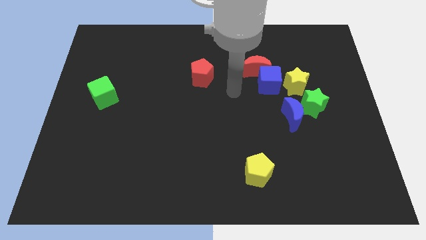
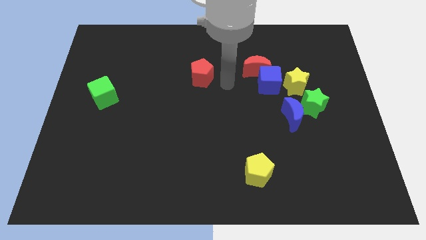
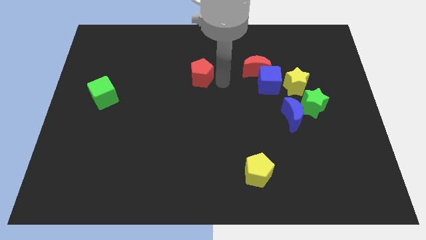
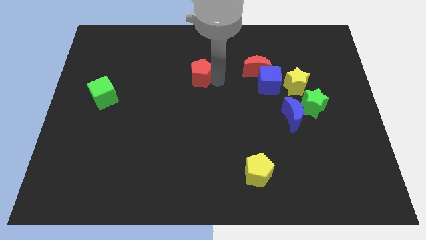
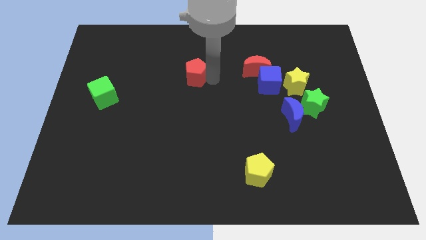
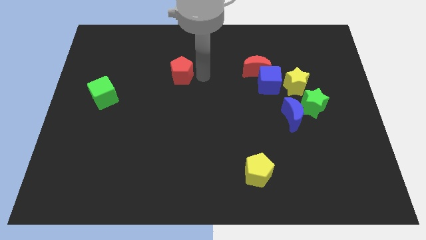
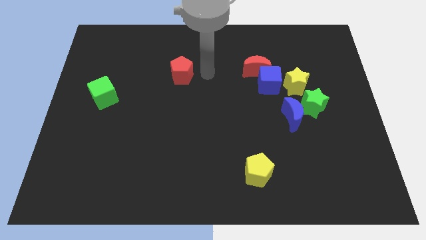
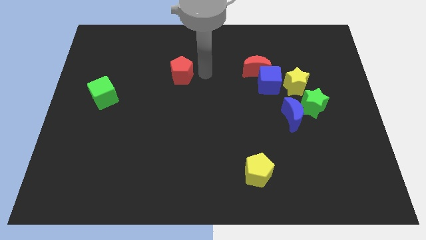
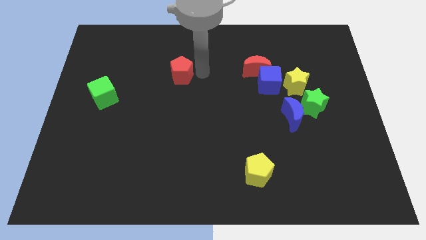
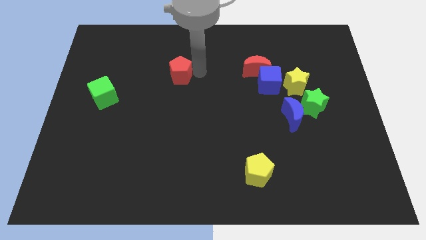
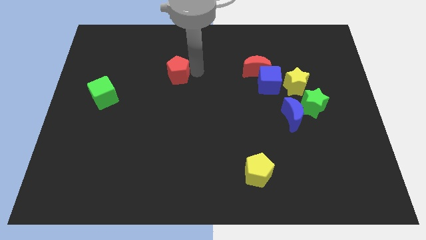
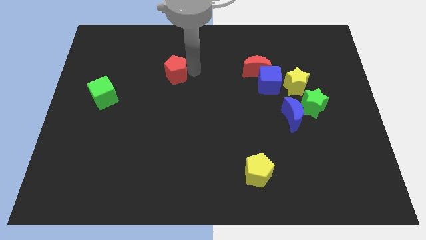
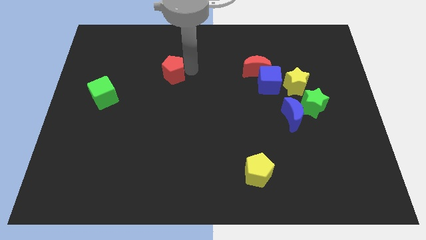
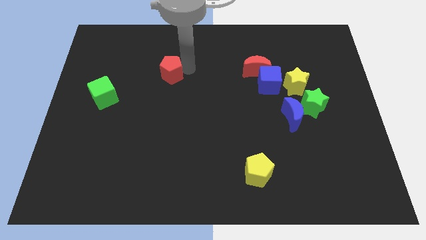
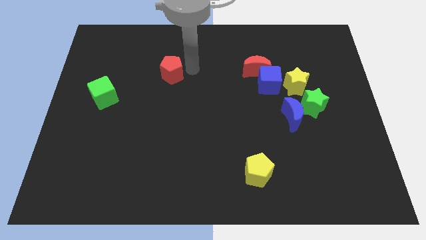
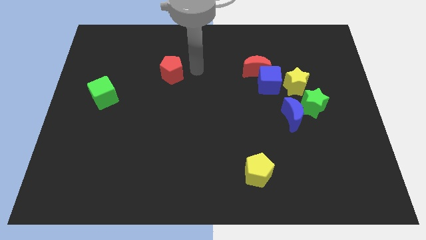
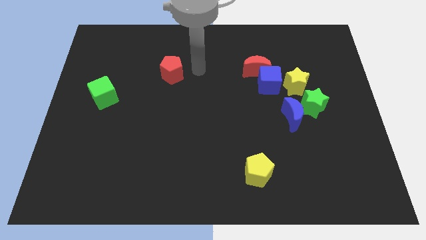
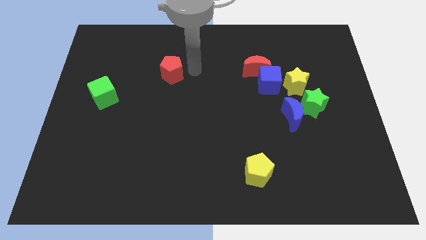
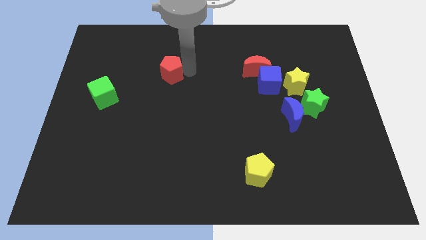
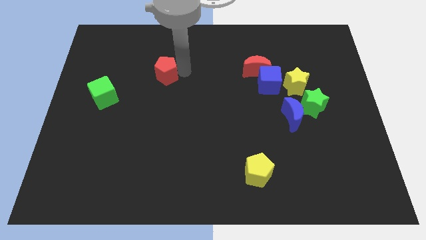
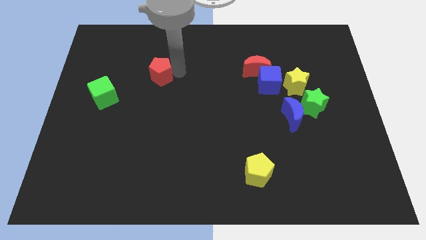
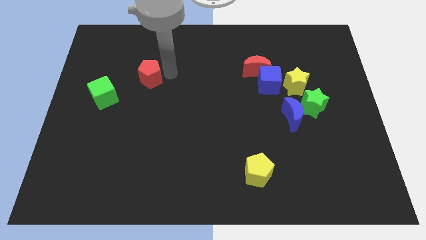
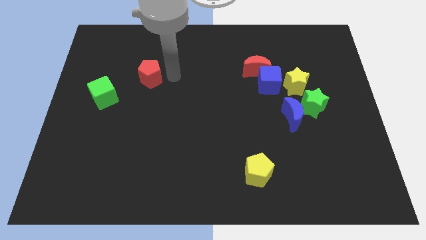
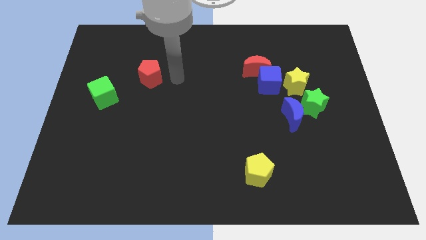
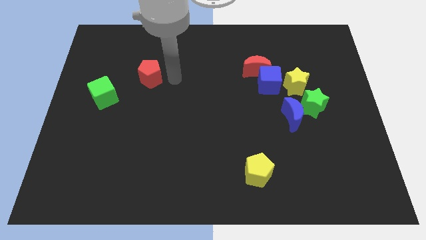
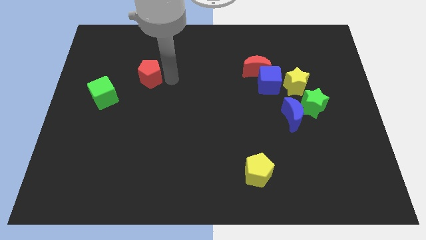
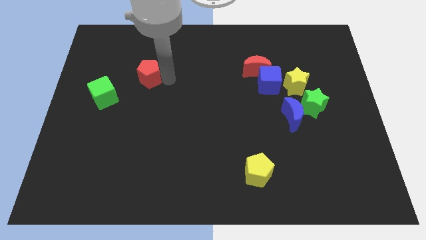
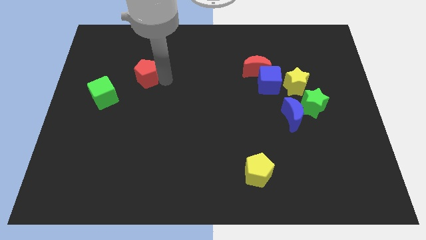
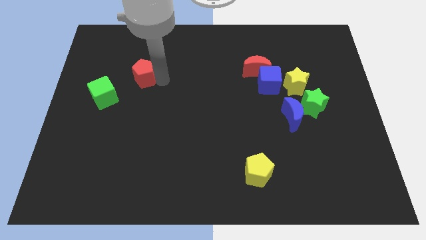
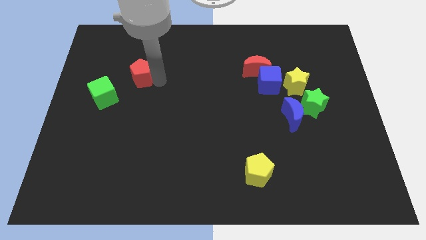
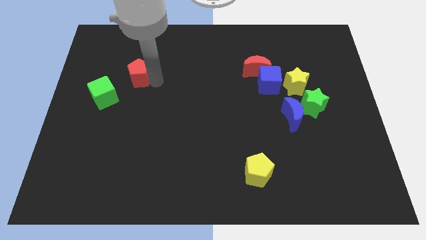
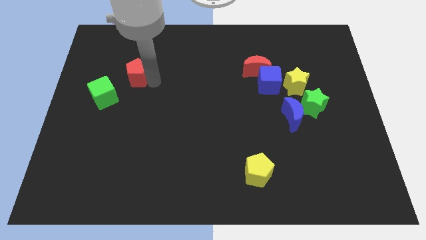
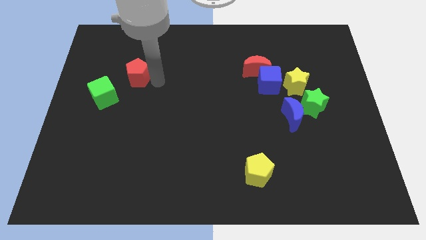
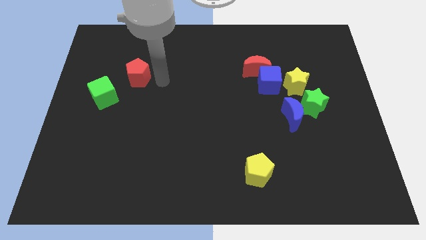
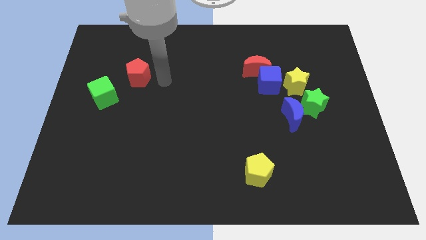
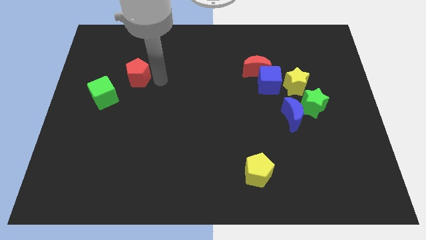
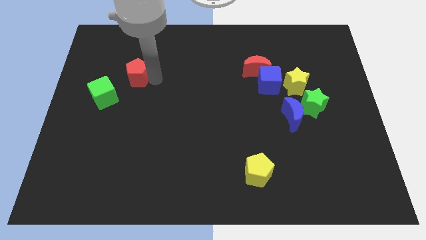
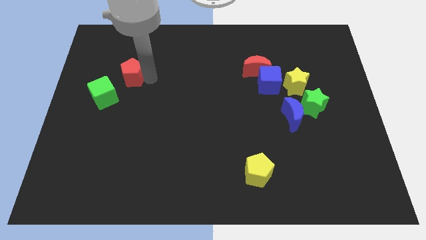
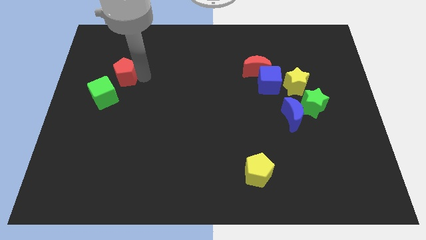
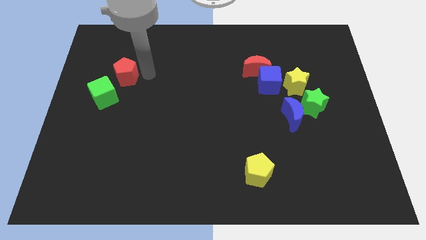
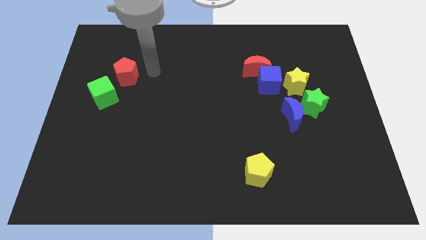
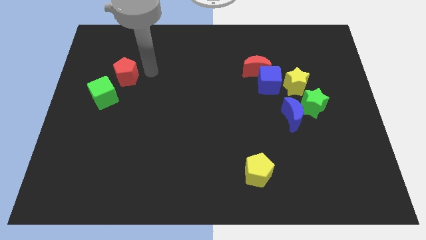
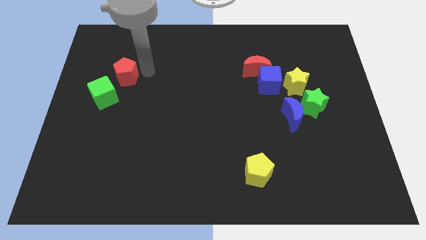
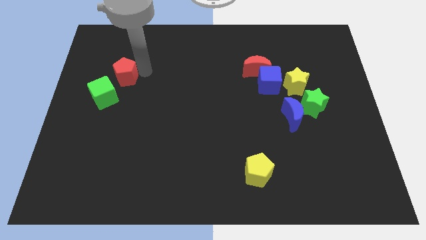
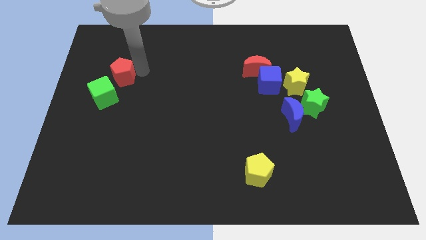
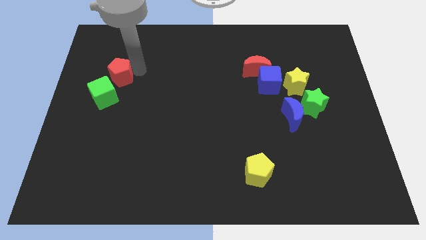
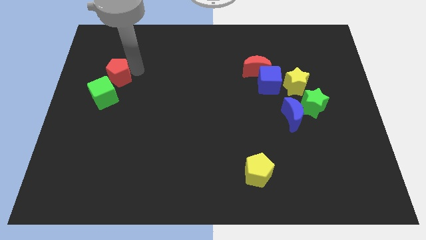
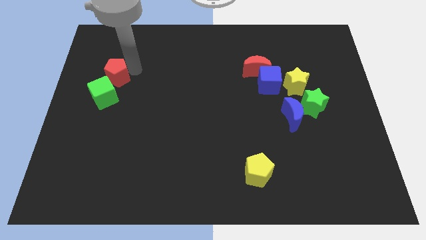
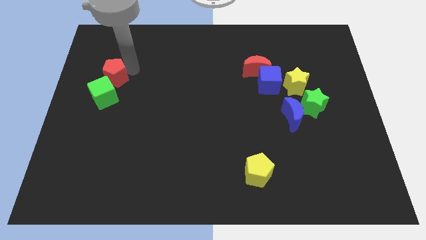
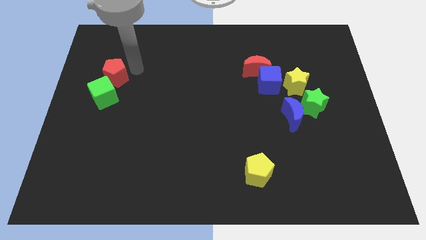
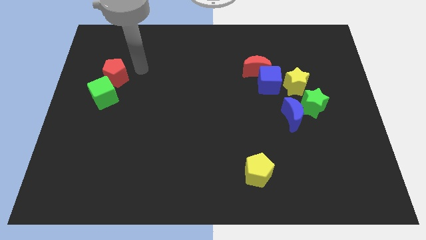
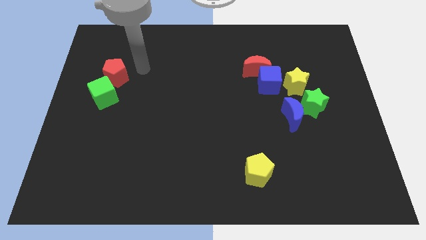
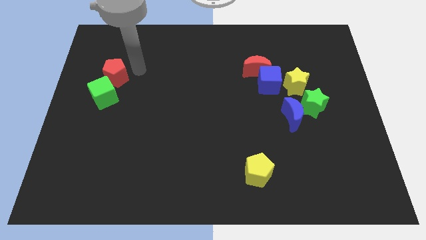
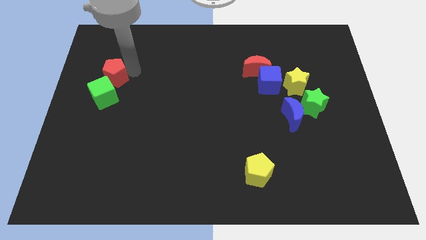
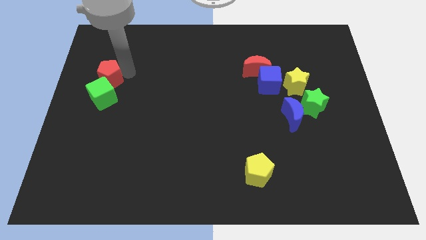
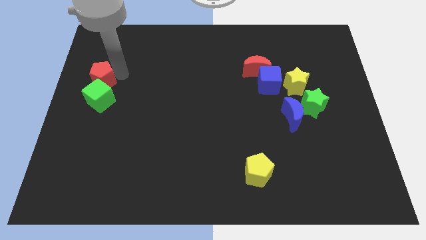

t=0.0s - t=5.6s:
push the red pentagon to the left side
